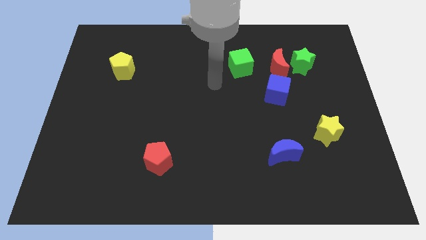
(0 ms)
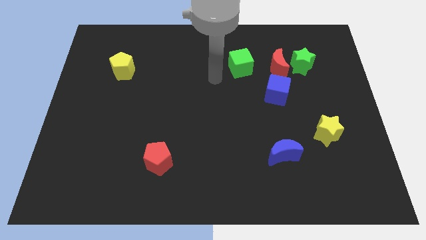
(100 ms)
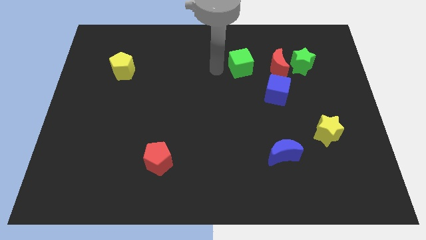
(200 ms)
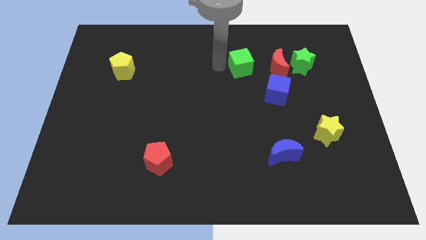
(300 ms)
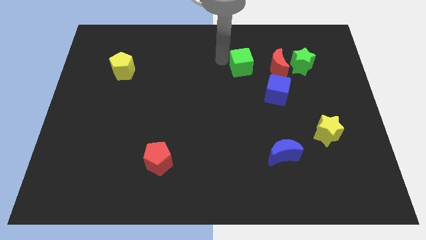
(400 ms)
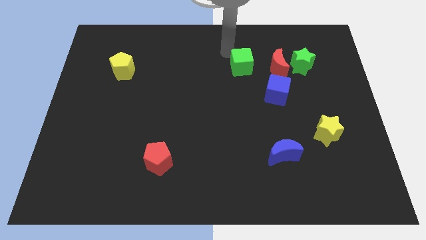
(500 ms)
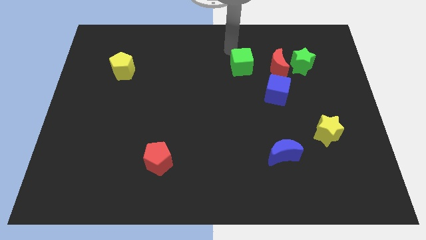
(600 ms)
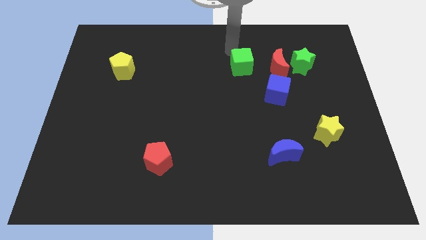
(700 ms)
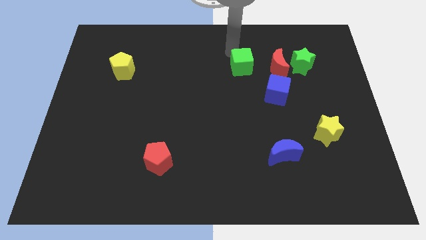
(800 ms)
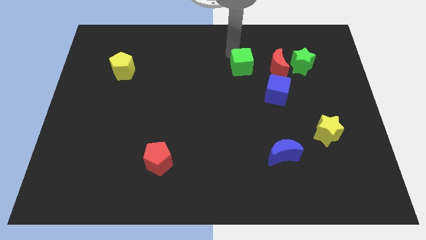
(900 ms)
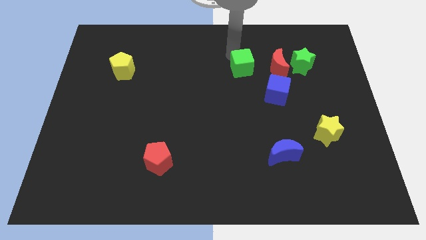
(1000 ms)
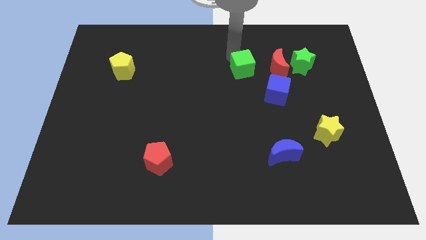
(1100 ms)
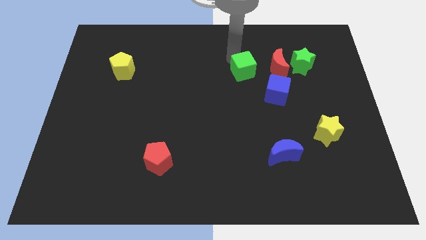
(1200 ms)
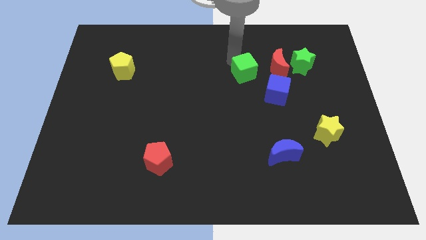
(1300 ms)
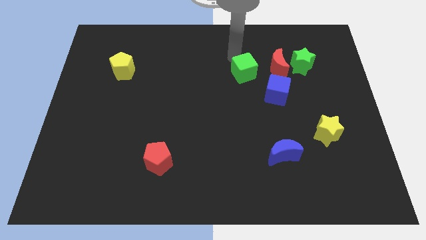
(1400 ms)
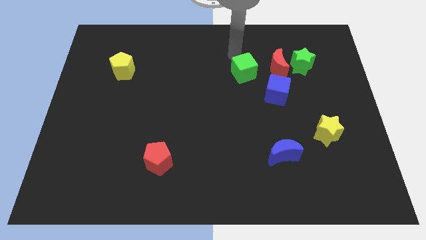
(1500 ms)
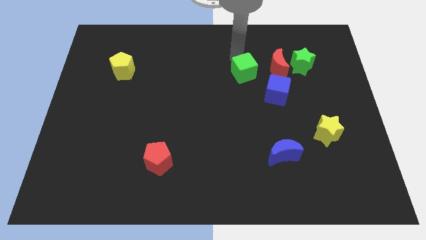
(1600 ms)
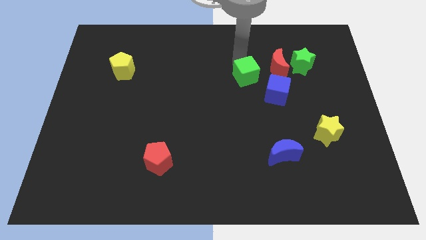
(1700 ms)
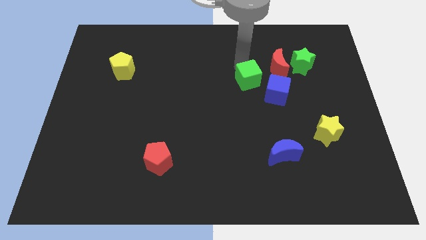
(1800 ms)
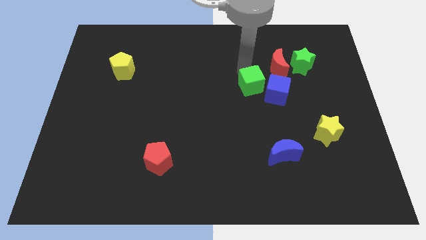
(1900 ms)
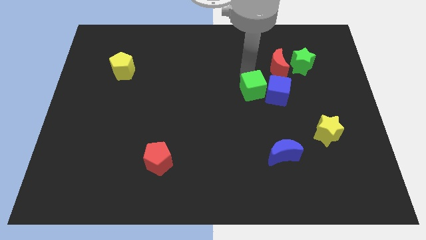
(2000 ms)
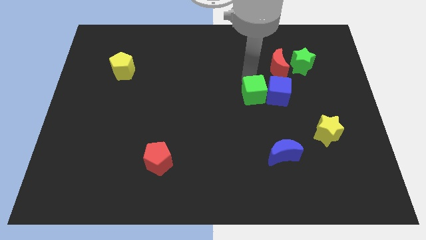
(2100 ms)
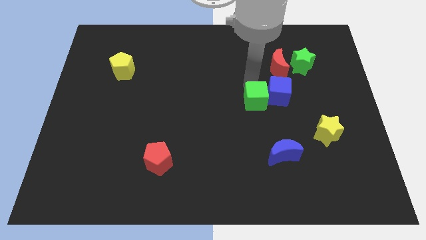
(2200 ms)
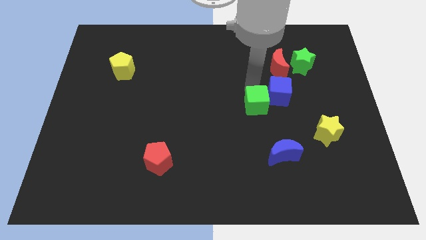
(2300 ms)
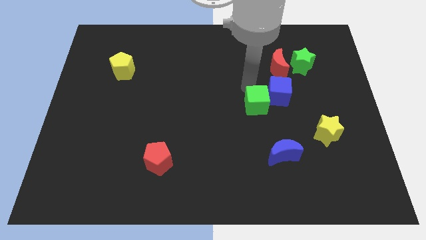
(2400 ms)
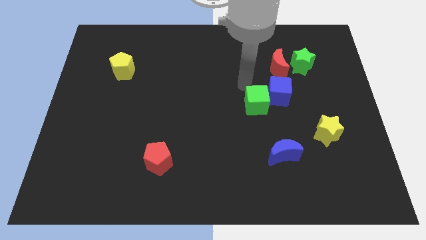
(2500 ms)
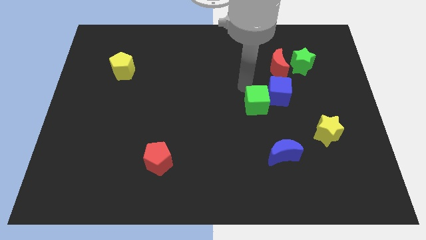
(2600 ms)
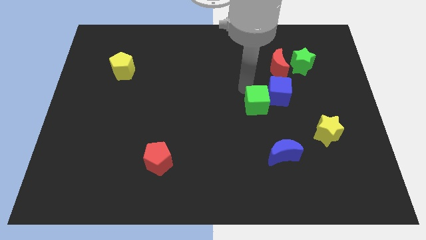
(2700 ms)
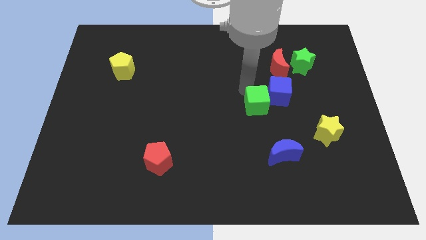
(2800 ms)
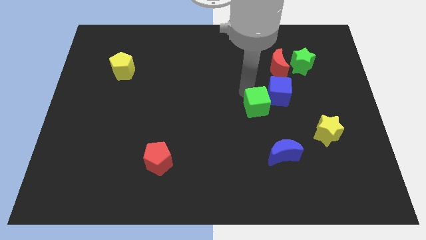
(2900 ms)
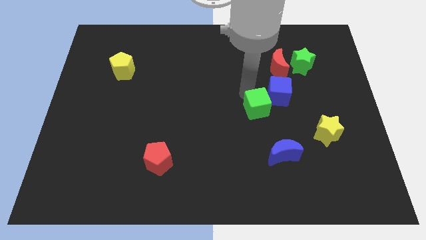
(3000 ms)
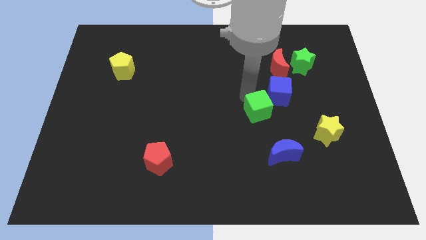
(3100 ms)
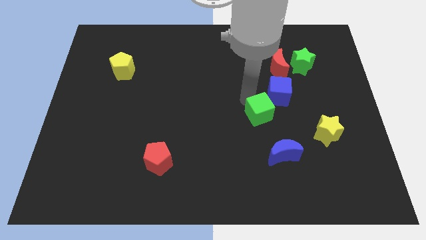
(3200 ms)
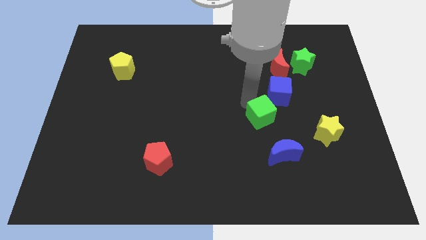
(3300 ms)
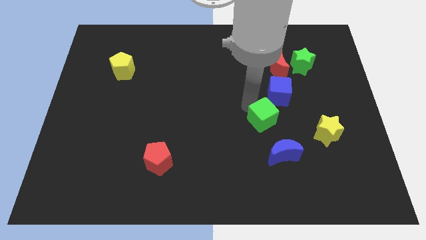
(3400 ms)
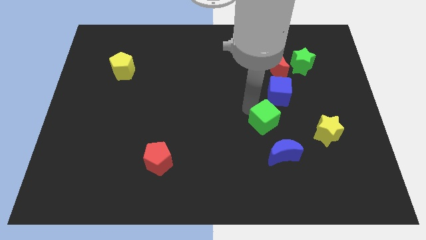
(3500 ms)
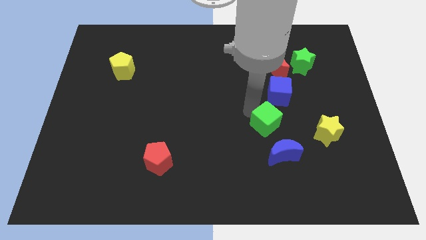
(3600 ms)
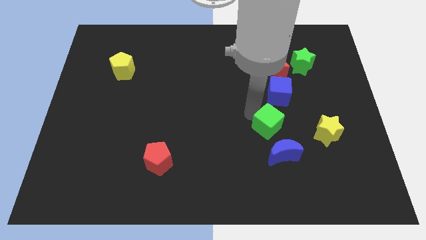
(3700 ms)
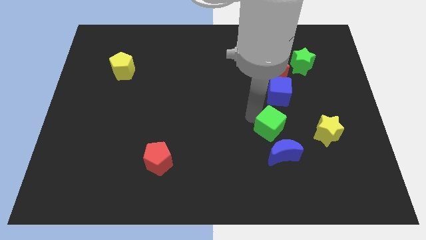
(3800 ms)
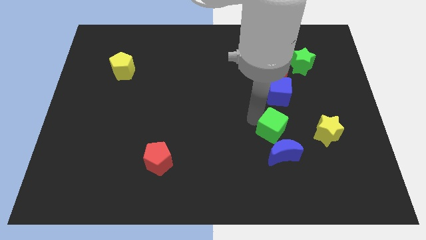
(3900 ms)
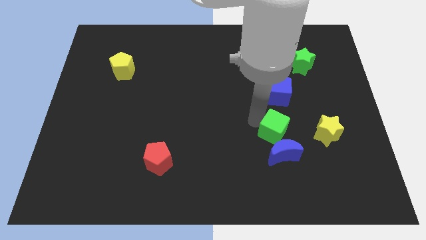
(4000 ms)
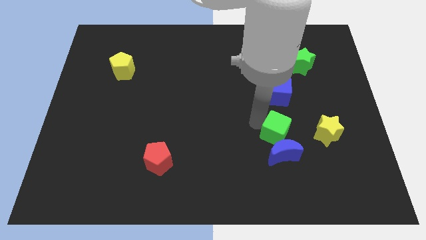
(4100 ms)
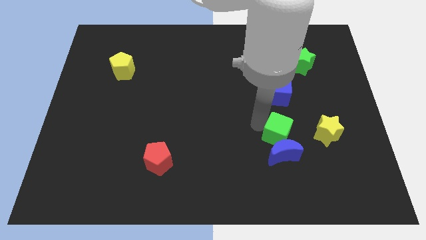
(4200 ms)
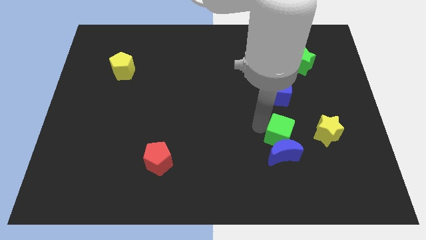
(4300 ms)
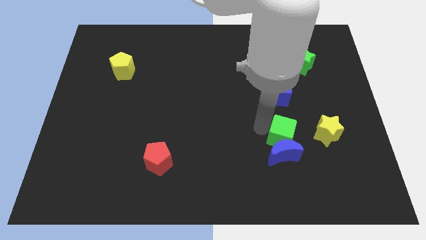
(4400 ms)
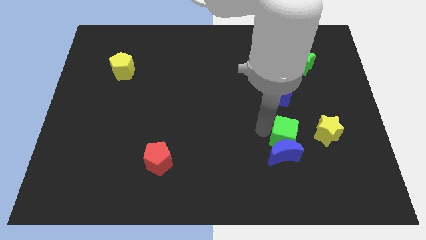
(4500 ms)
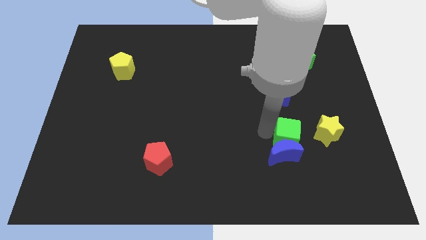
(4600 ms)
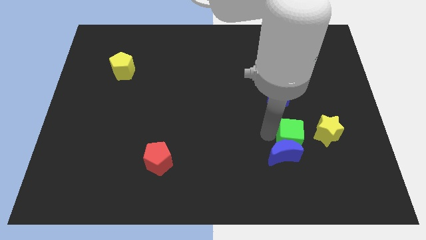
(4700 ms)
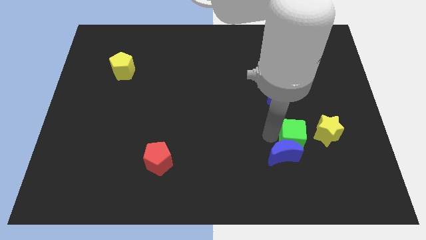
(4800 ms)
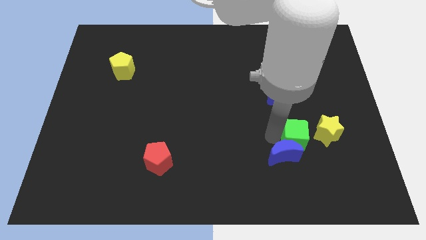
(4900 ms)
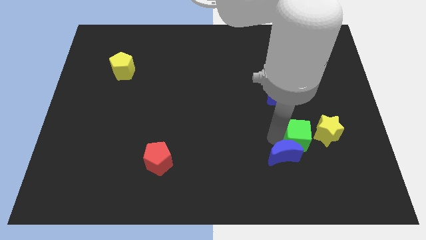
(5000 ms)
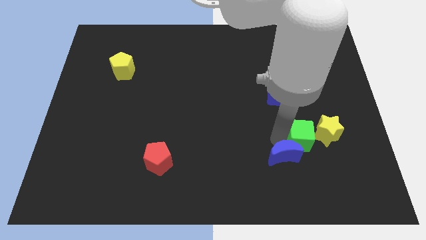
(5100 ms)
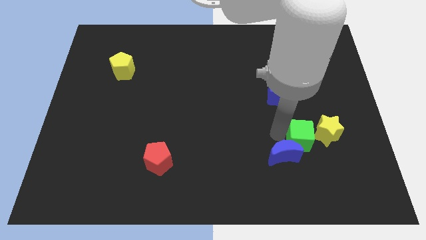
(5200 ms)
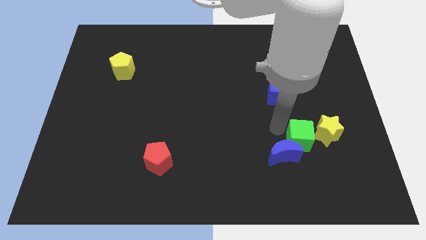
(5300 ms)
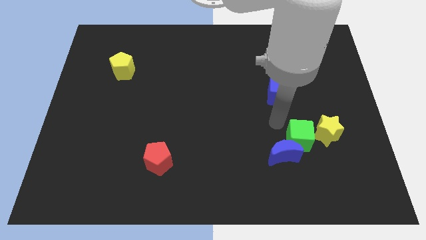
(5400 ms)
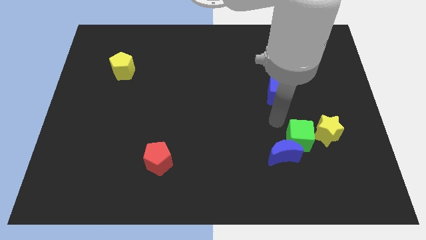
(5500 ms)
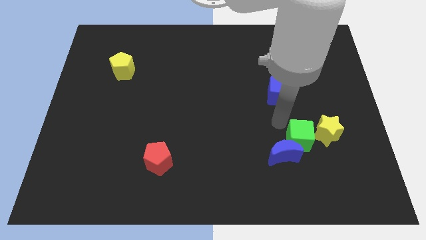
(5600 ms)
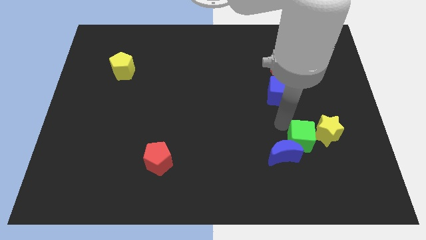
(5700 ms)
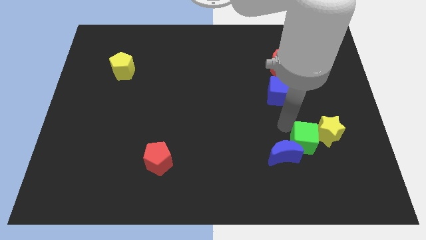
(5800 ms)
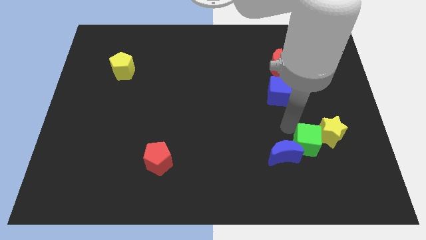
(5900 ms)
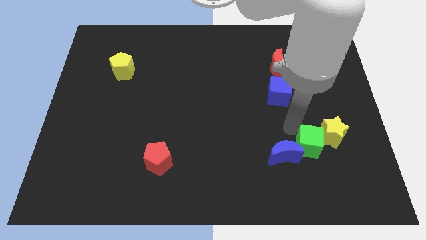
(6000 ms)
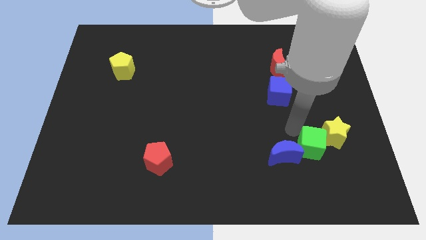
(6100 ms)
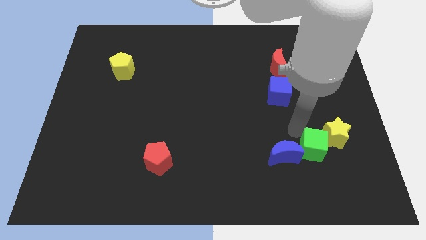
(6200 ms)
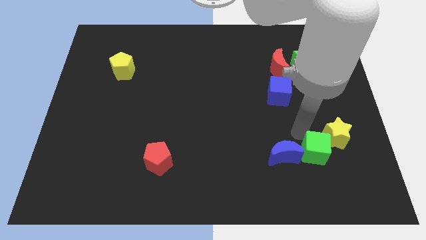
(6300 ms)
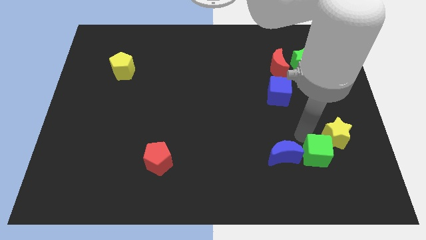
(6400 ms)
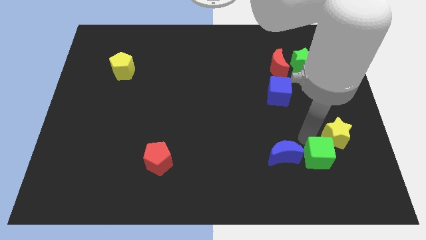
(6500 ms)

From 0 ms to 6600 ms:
slide the green cube below the yellow star

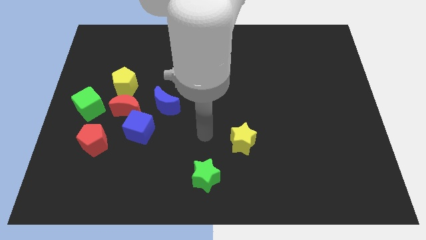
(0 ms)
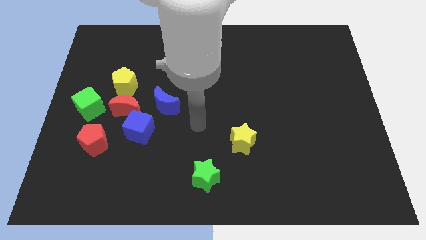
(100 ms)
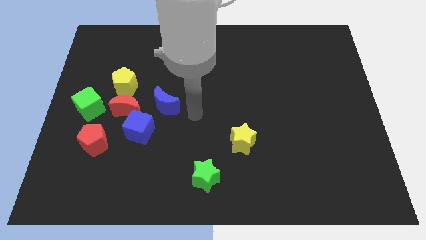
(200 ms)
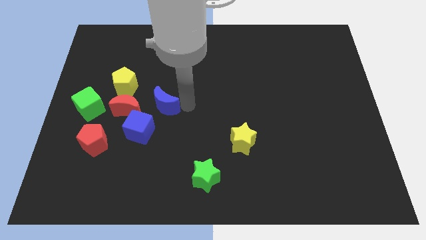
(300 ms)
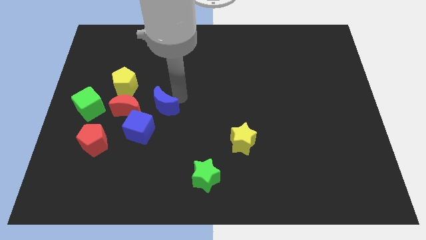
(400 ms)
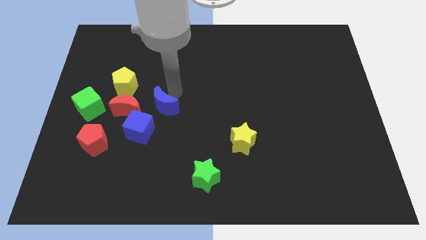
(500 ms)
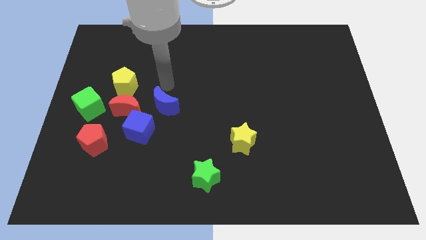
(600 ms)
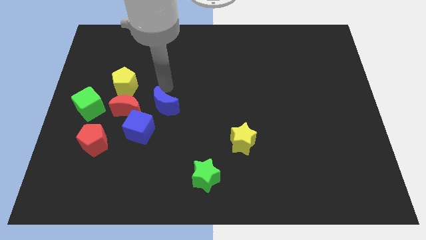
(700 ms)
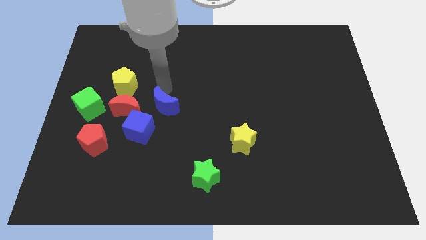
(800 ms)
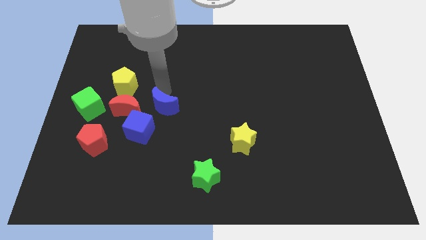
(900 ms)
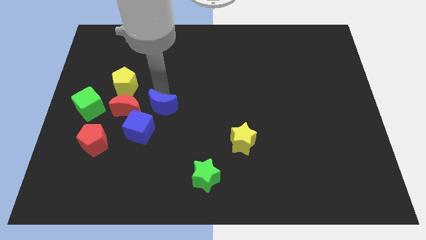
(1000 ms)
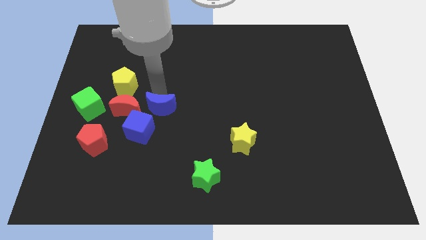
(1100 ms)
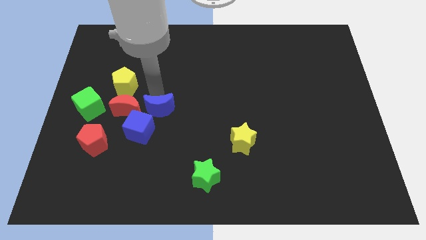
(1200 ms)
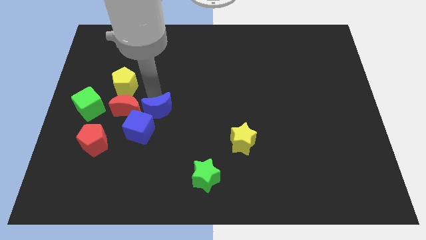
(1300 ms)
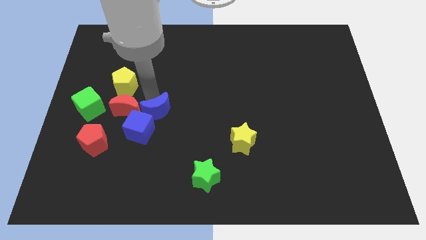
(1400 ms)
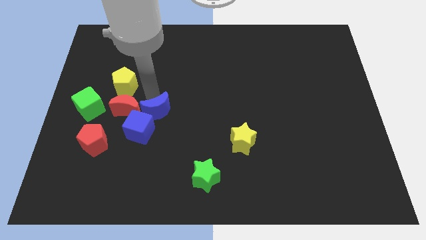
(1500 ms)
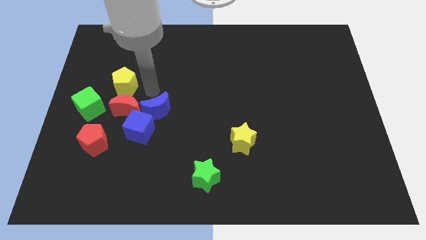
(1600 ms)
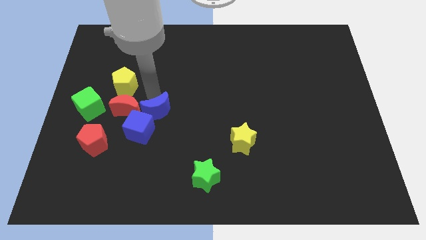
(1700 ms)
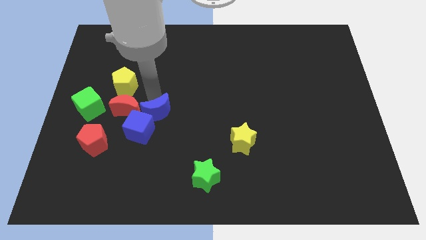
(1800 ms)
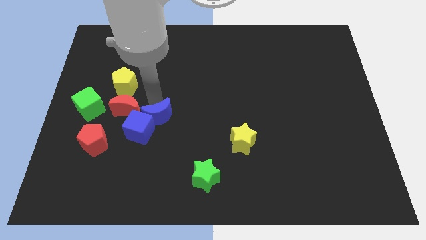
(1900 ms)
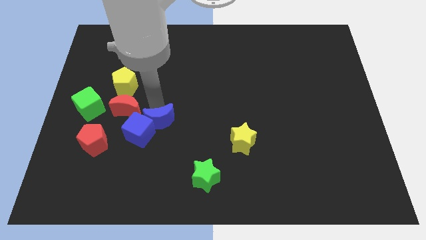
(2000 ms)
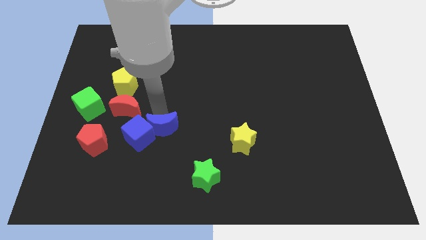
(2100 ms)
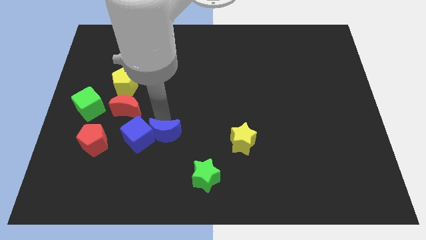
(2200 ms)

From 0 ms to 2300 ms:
push the blue moon to the bottom right of the blue cube
